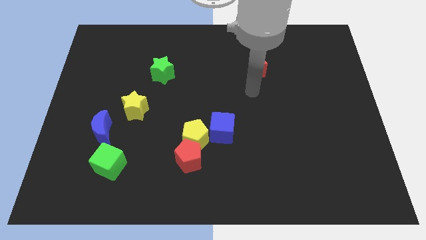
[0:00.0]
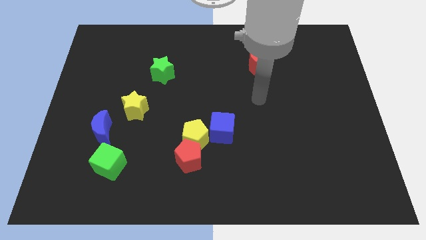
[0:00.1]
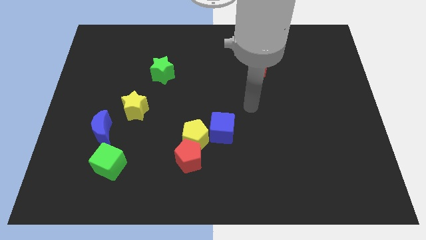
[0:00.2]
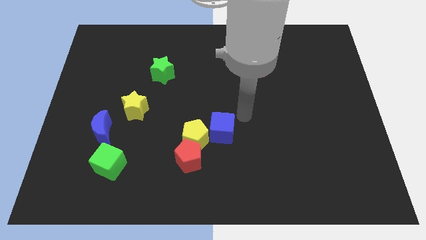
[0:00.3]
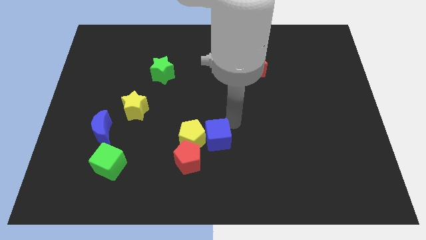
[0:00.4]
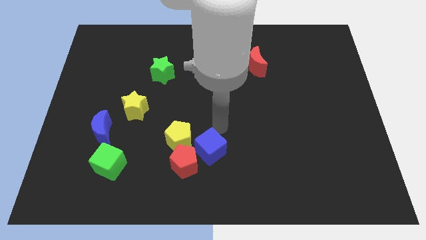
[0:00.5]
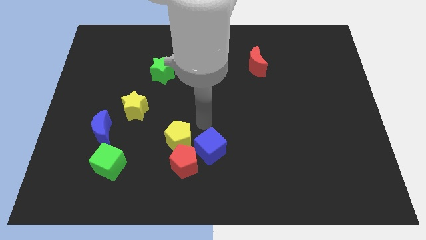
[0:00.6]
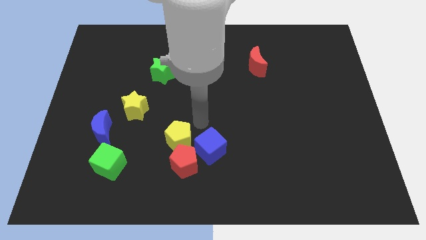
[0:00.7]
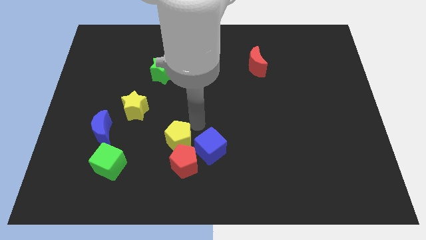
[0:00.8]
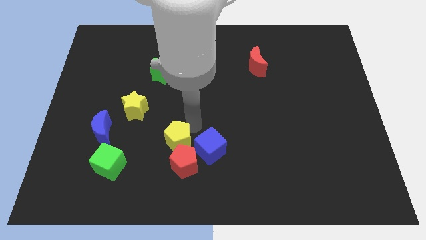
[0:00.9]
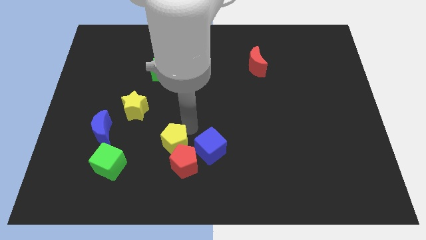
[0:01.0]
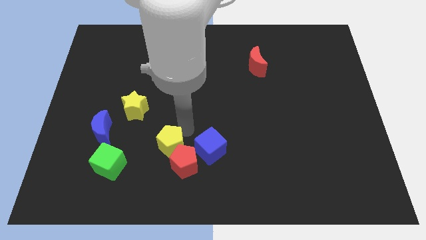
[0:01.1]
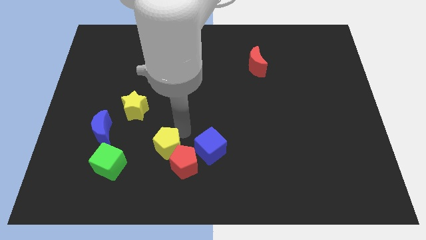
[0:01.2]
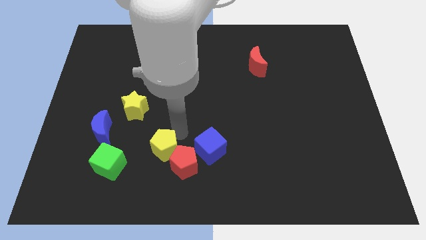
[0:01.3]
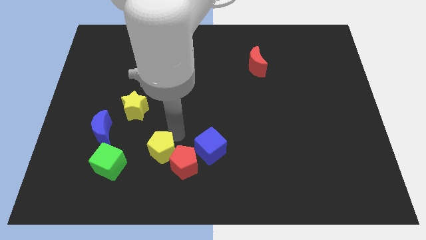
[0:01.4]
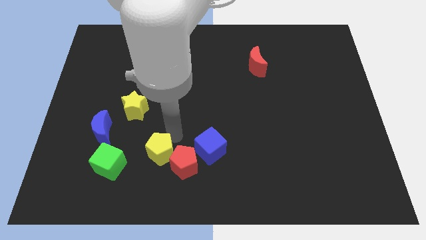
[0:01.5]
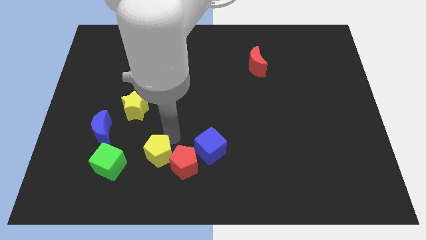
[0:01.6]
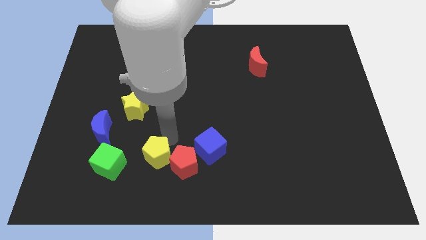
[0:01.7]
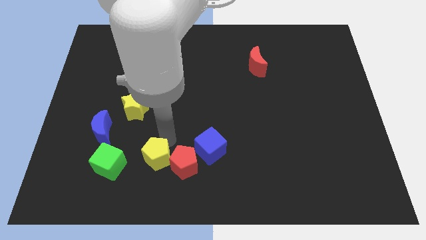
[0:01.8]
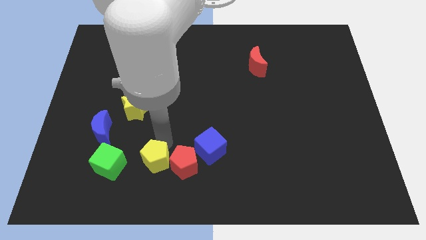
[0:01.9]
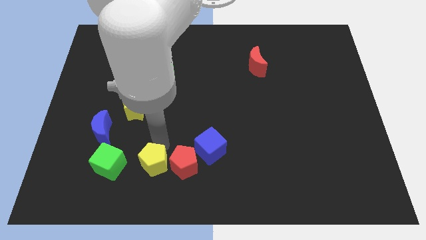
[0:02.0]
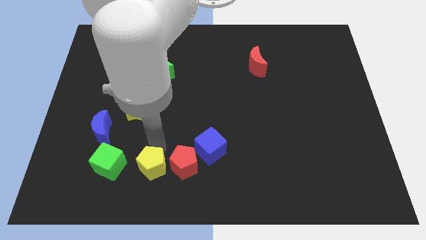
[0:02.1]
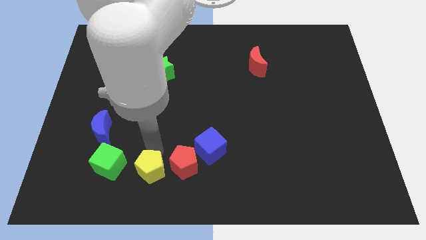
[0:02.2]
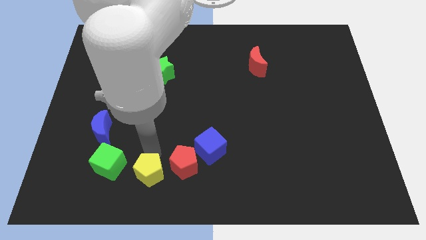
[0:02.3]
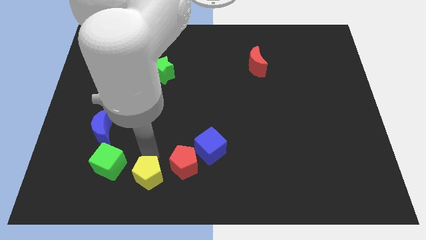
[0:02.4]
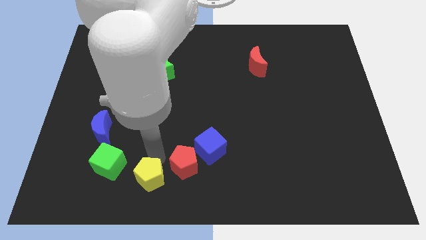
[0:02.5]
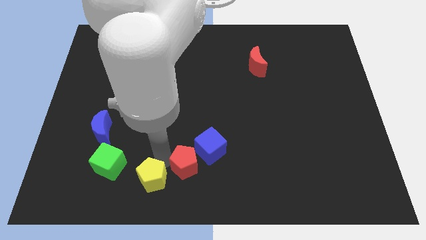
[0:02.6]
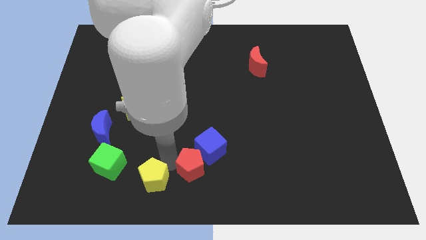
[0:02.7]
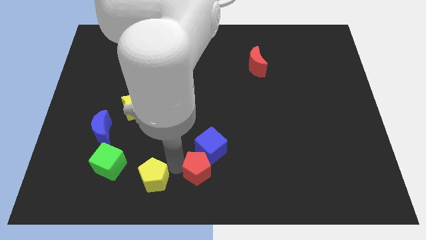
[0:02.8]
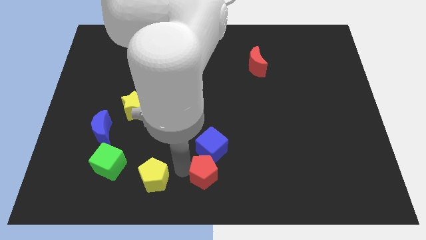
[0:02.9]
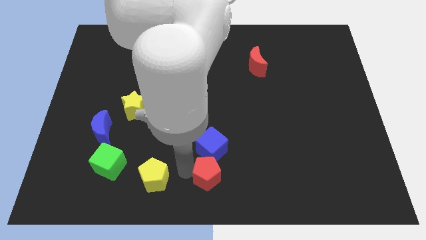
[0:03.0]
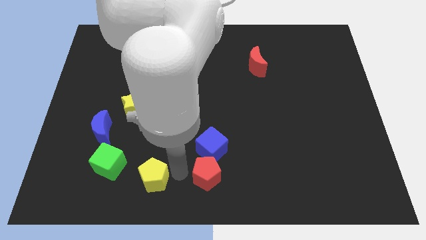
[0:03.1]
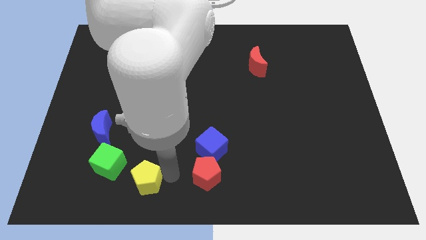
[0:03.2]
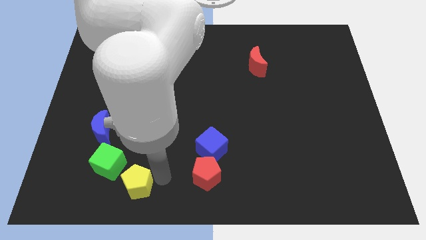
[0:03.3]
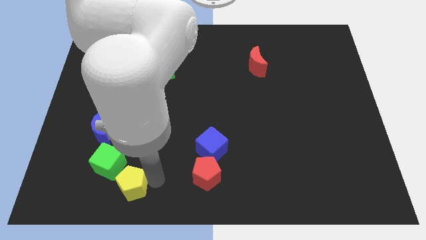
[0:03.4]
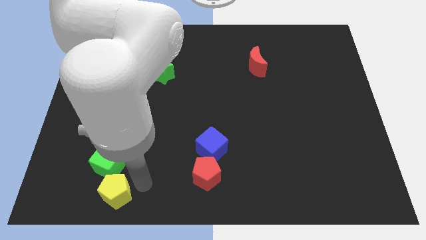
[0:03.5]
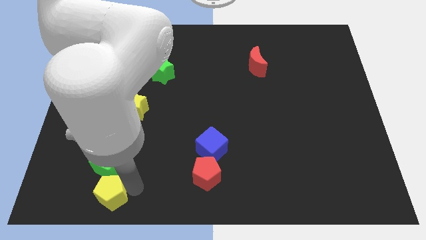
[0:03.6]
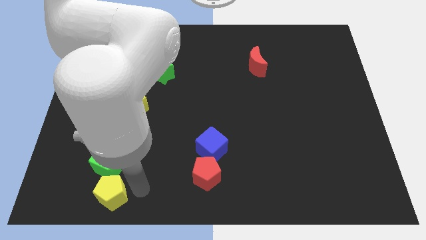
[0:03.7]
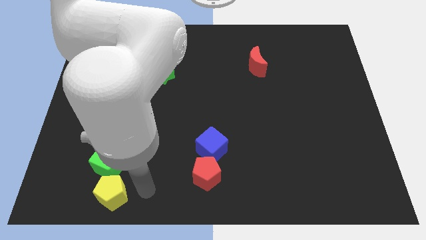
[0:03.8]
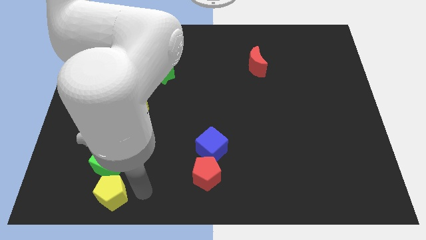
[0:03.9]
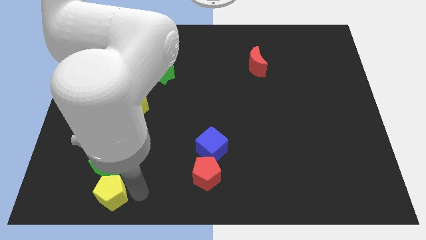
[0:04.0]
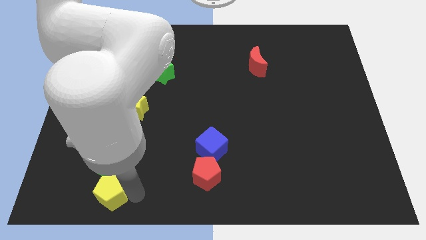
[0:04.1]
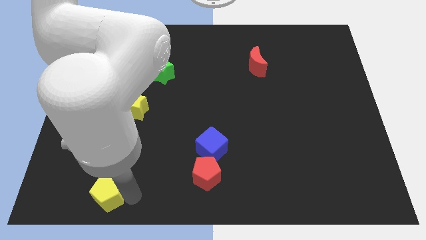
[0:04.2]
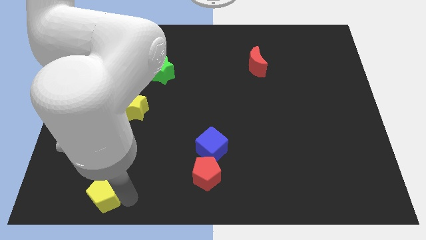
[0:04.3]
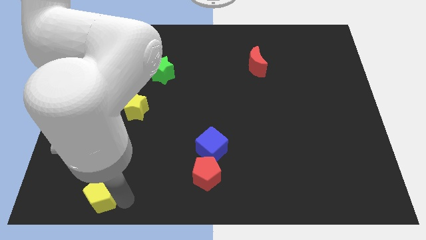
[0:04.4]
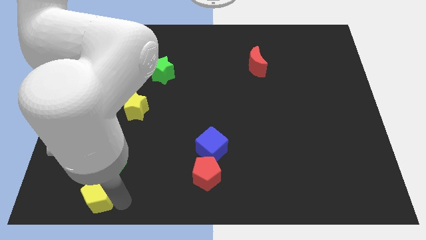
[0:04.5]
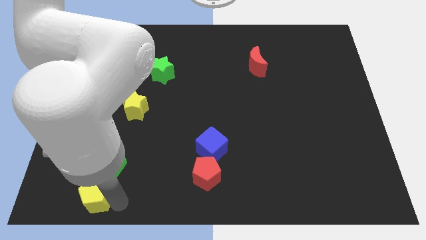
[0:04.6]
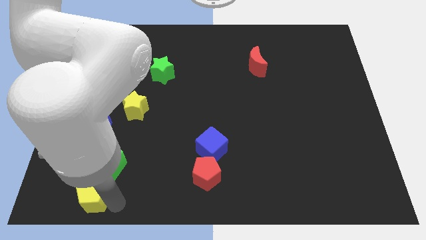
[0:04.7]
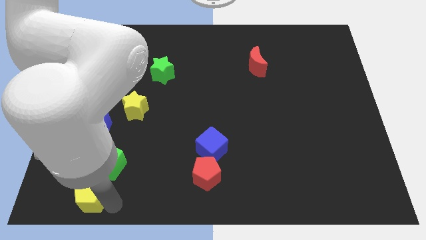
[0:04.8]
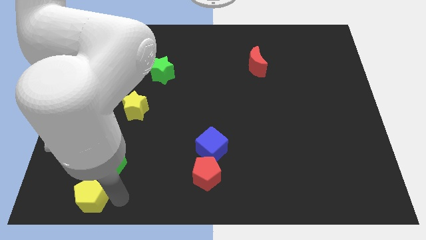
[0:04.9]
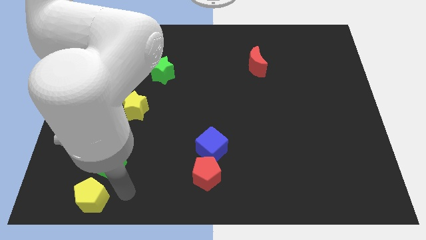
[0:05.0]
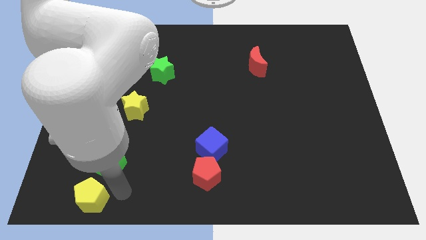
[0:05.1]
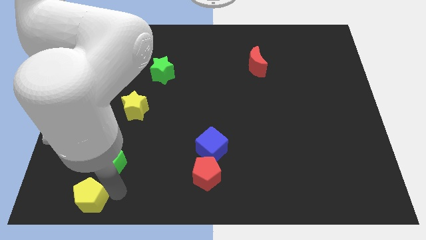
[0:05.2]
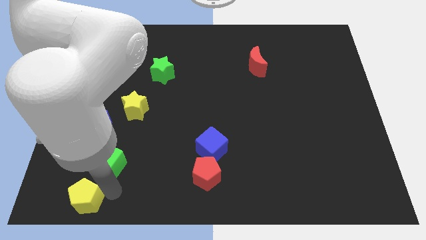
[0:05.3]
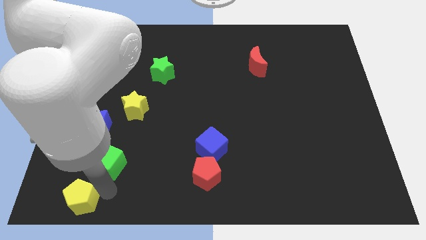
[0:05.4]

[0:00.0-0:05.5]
put the yellow pentagon to the bottom left corner

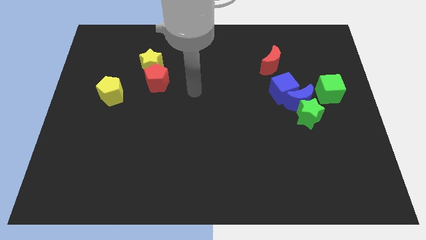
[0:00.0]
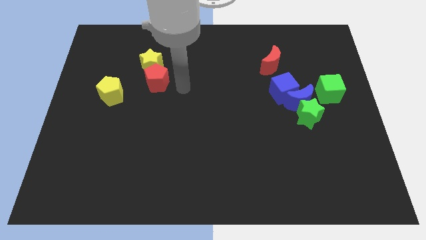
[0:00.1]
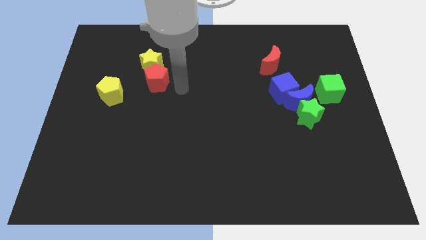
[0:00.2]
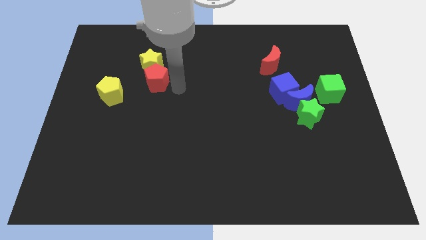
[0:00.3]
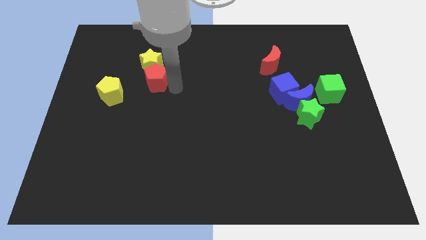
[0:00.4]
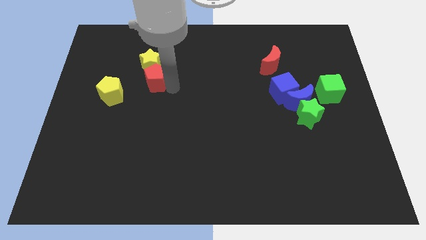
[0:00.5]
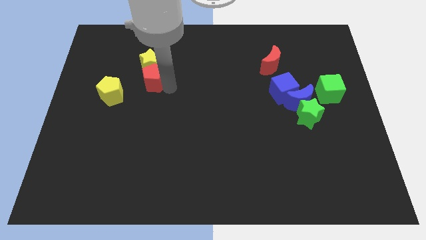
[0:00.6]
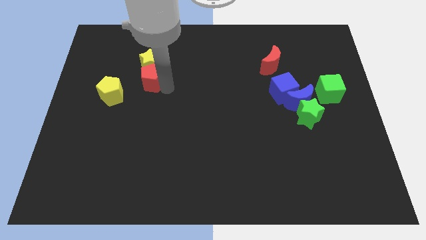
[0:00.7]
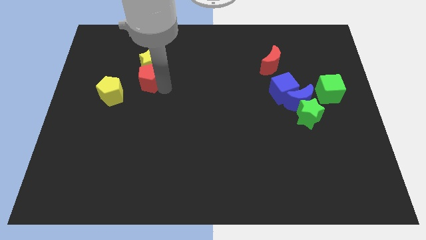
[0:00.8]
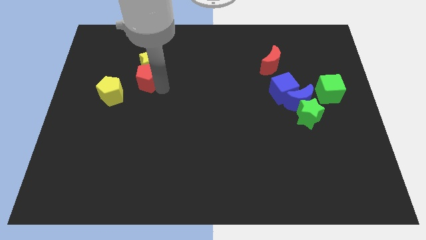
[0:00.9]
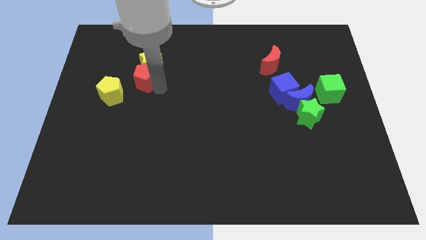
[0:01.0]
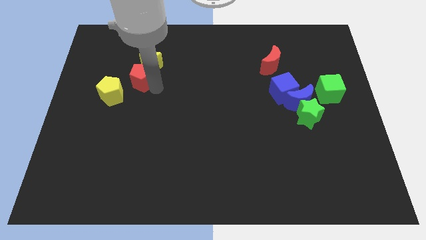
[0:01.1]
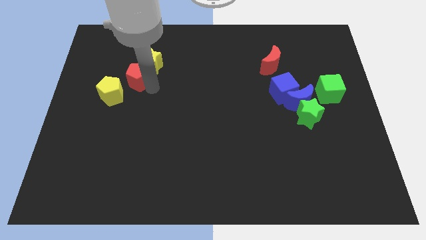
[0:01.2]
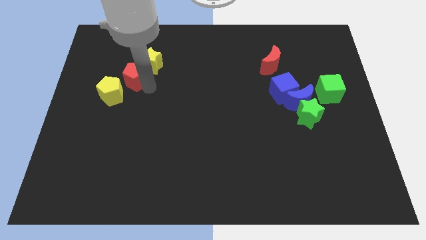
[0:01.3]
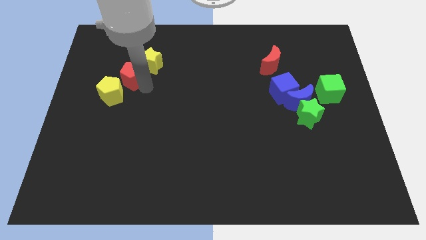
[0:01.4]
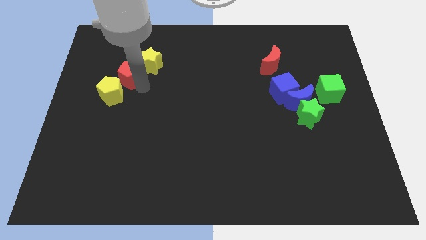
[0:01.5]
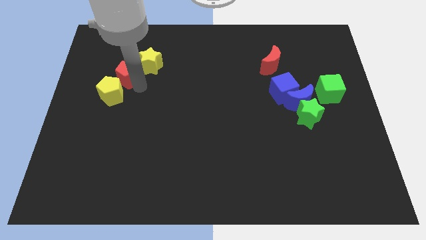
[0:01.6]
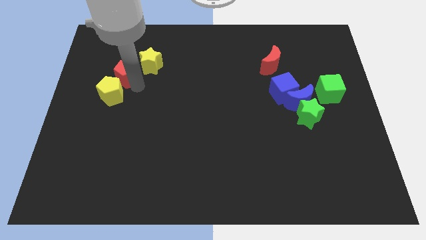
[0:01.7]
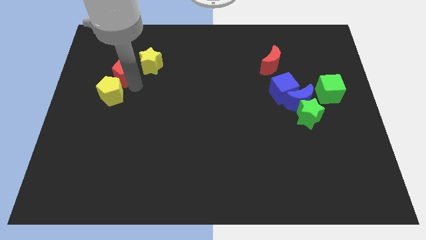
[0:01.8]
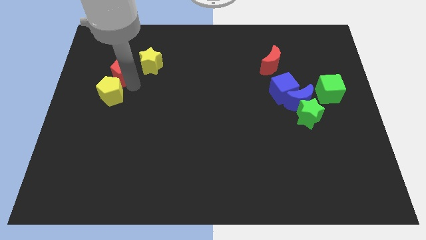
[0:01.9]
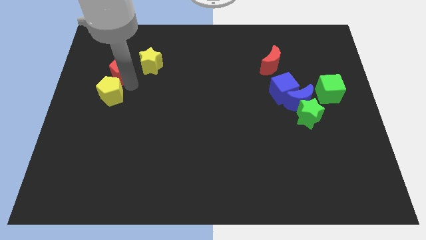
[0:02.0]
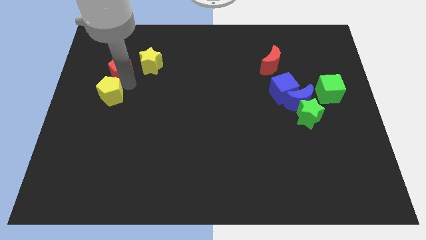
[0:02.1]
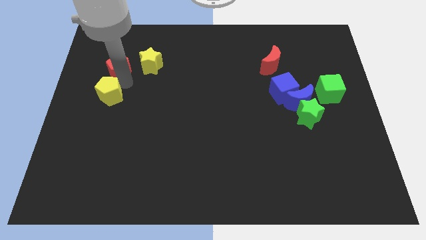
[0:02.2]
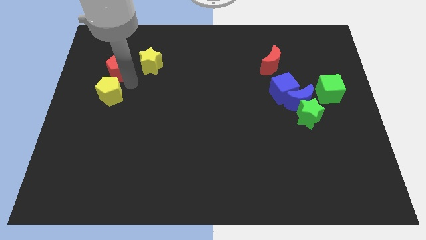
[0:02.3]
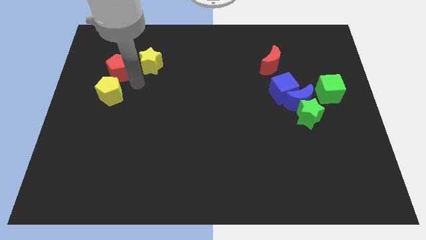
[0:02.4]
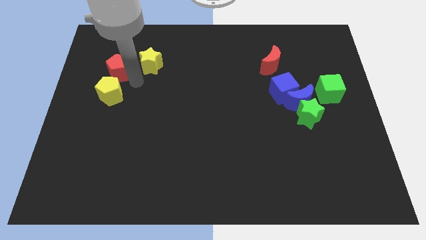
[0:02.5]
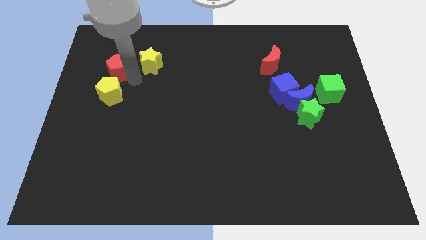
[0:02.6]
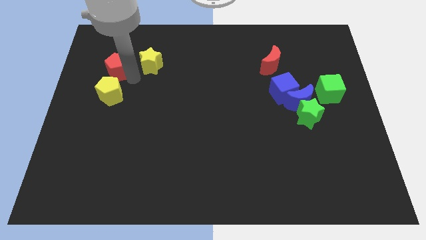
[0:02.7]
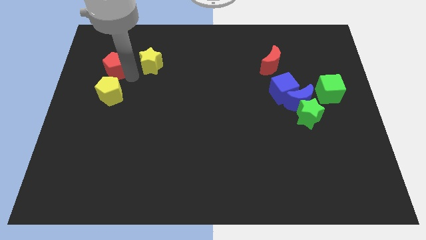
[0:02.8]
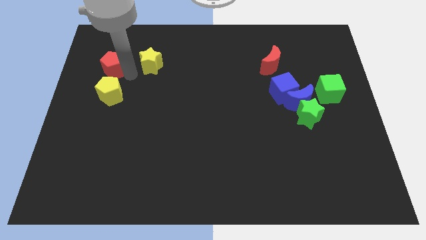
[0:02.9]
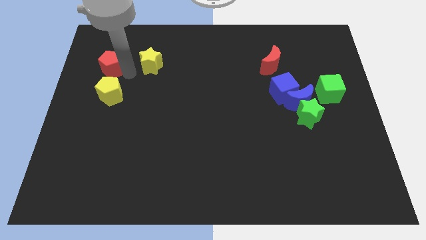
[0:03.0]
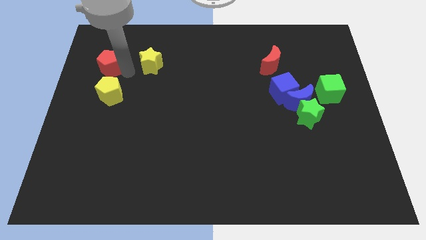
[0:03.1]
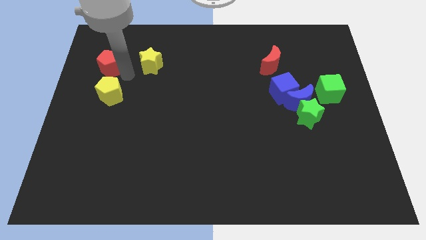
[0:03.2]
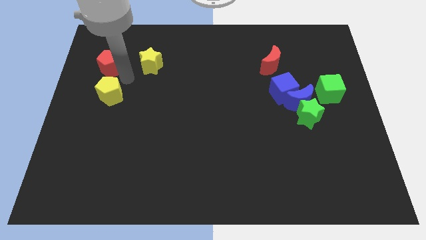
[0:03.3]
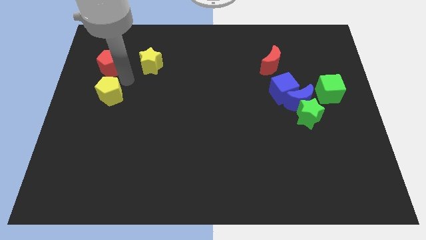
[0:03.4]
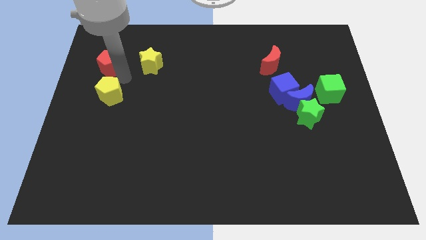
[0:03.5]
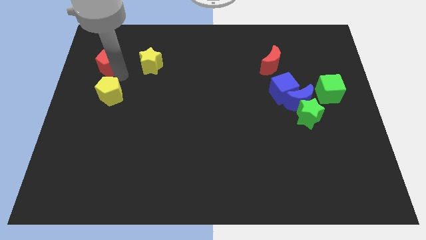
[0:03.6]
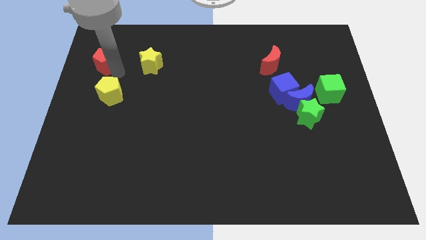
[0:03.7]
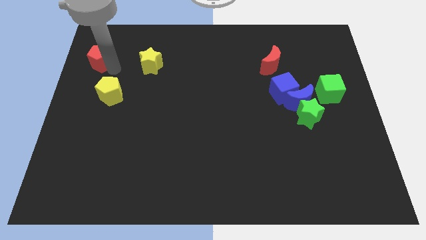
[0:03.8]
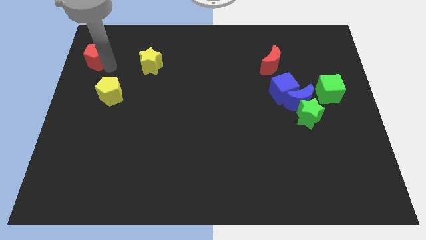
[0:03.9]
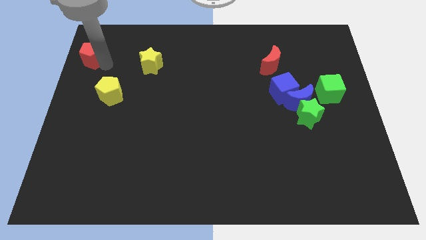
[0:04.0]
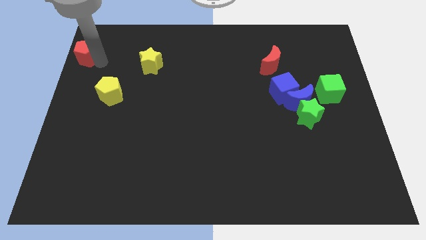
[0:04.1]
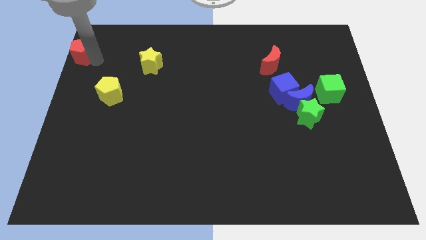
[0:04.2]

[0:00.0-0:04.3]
slide the red pentagon to the top left
